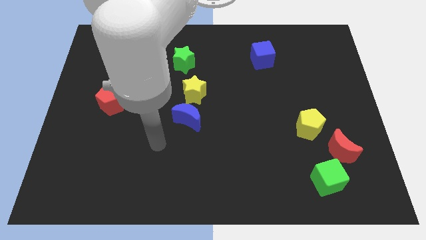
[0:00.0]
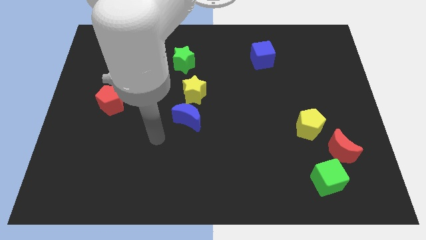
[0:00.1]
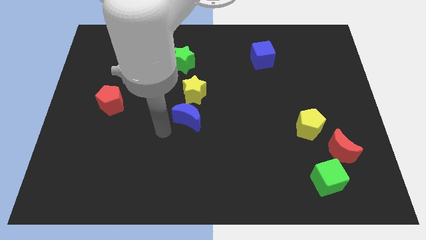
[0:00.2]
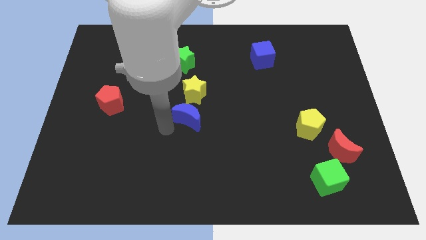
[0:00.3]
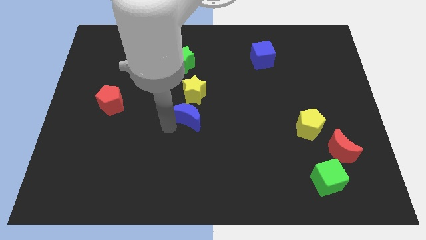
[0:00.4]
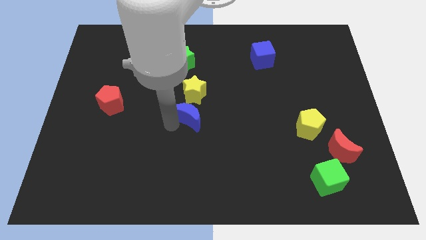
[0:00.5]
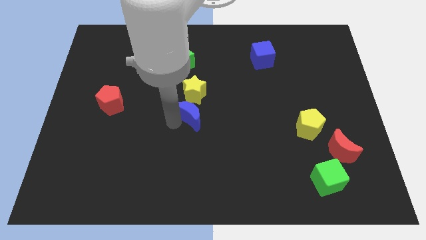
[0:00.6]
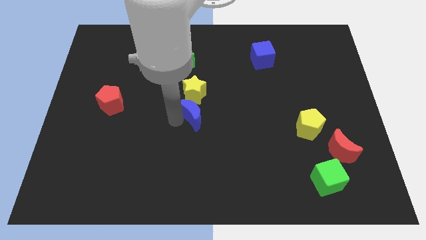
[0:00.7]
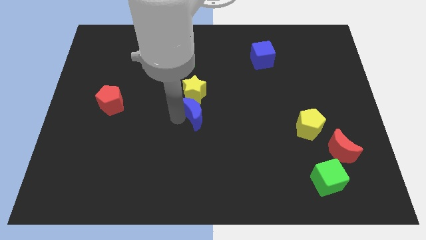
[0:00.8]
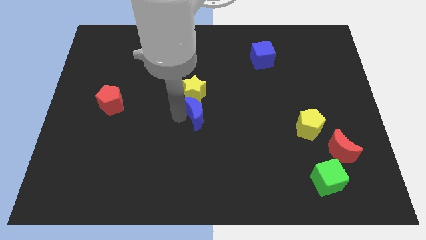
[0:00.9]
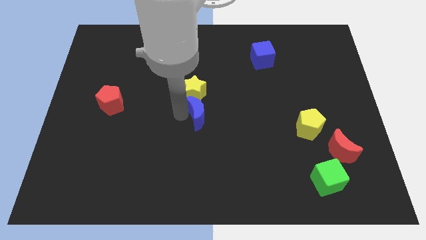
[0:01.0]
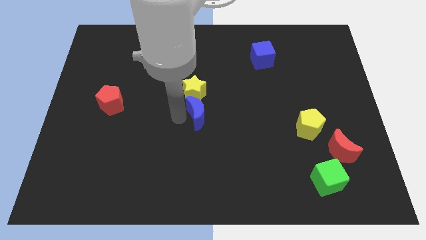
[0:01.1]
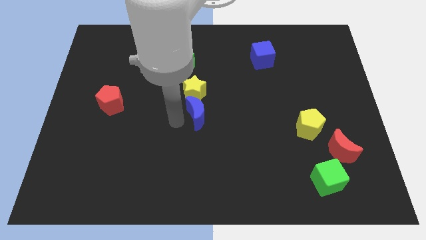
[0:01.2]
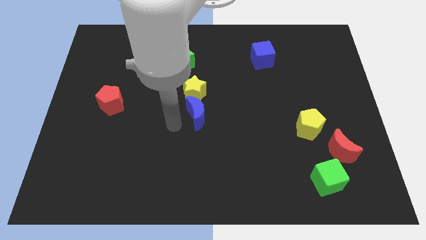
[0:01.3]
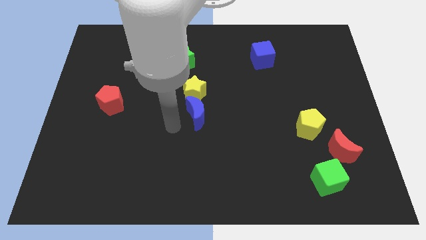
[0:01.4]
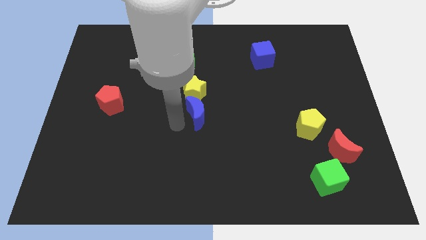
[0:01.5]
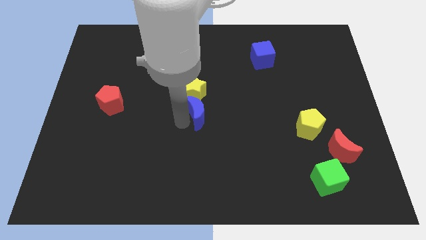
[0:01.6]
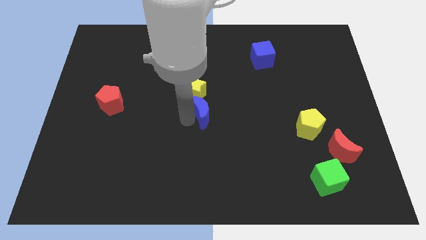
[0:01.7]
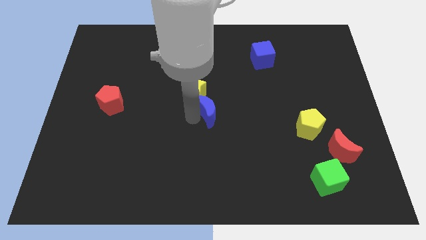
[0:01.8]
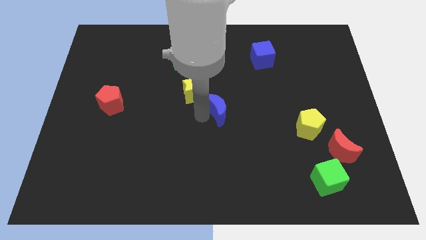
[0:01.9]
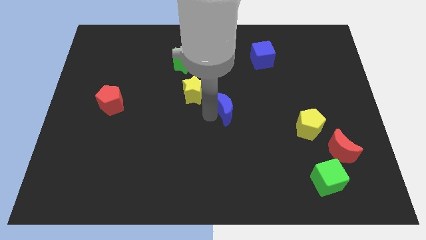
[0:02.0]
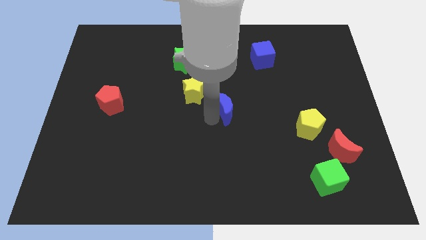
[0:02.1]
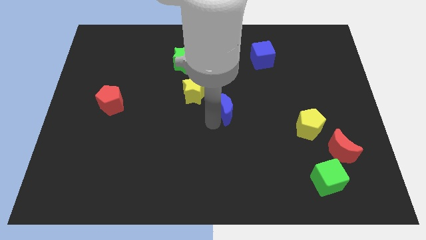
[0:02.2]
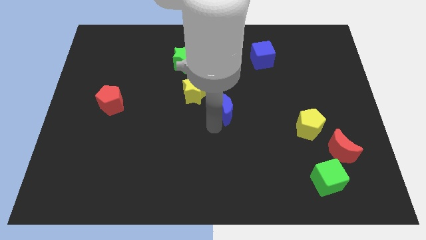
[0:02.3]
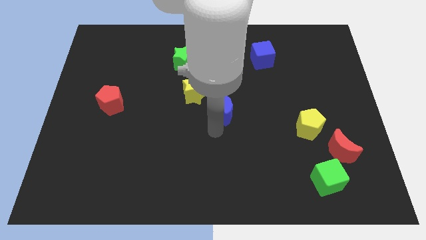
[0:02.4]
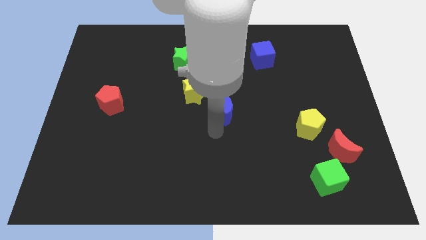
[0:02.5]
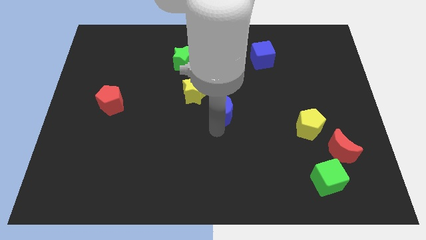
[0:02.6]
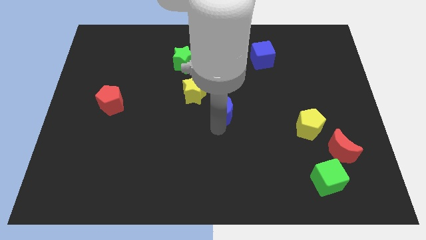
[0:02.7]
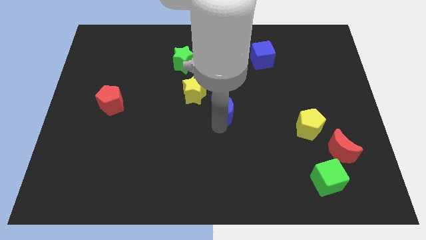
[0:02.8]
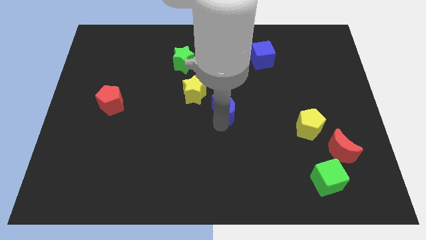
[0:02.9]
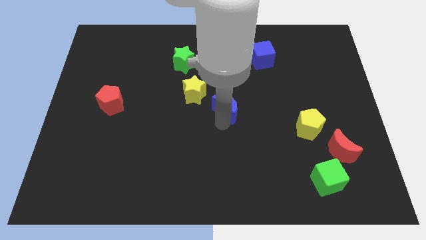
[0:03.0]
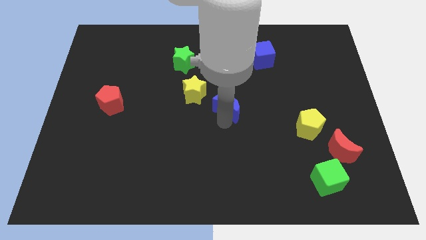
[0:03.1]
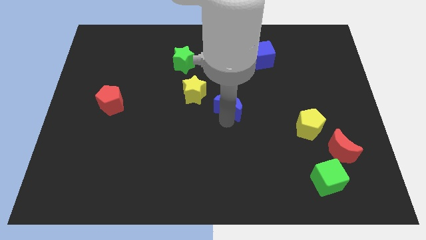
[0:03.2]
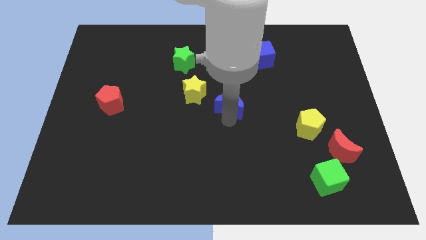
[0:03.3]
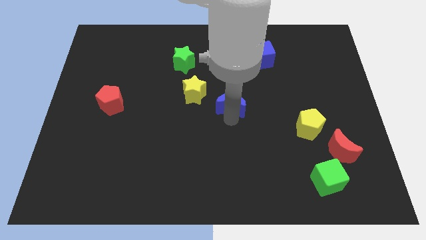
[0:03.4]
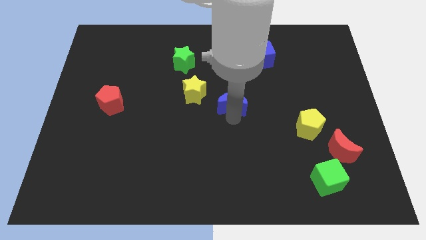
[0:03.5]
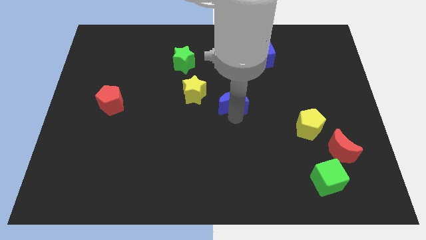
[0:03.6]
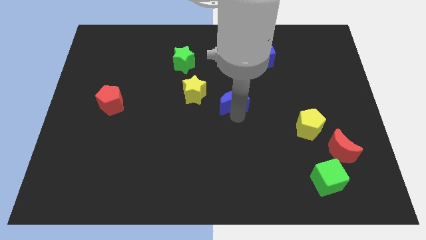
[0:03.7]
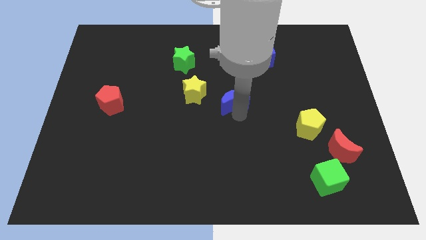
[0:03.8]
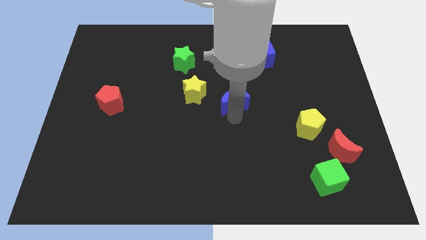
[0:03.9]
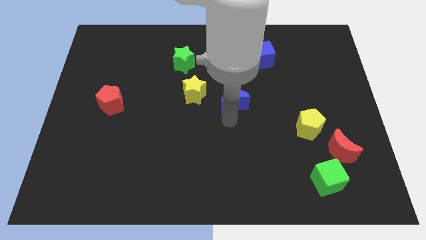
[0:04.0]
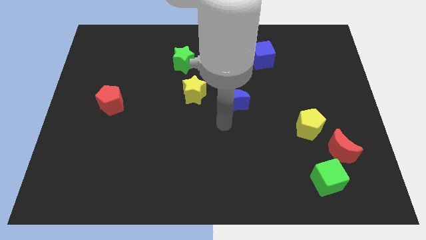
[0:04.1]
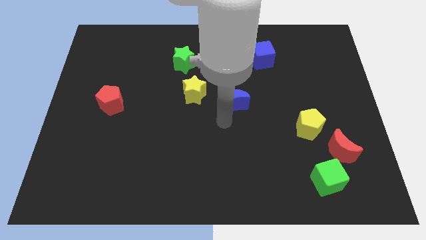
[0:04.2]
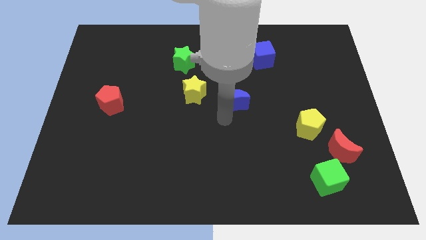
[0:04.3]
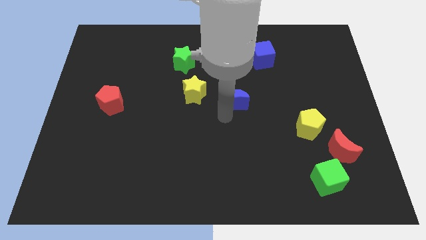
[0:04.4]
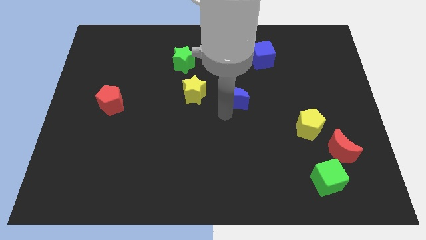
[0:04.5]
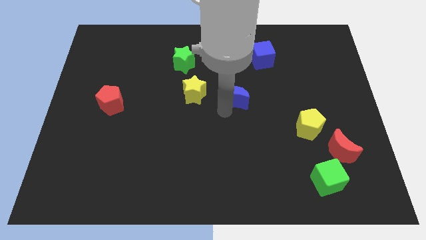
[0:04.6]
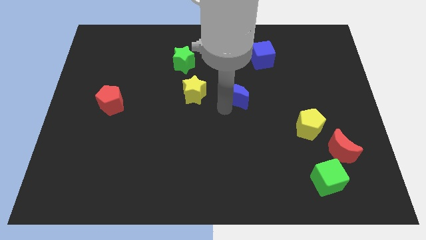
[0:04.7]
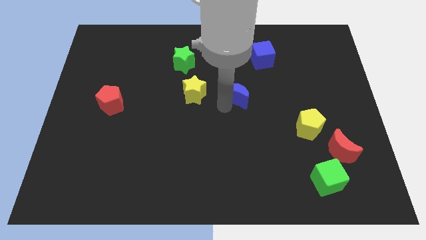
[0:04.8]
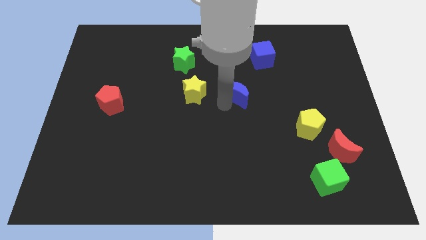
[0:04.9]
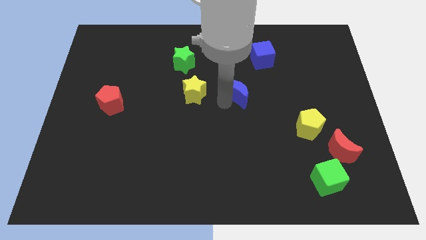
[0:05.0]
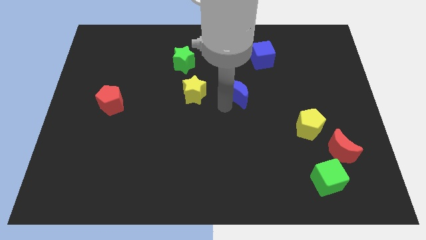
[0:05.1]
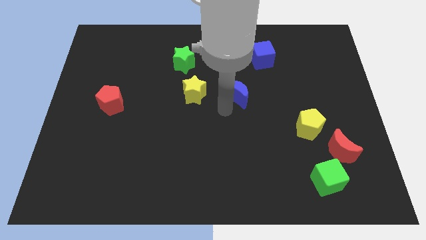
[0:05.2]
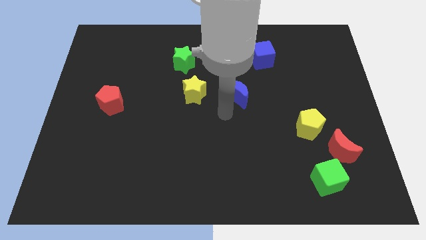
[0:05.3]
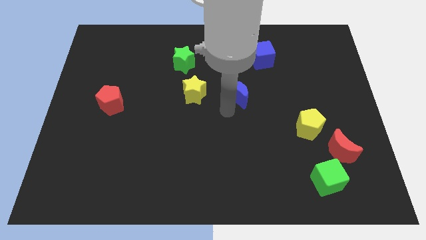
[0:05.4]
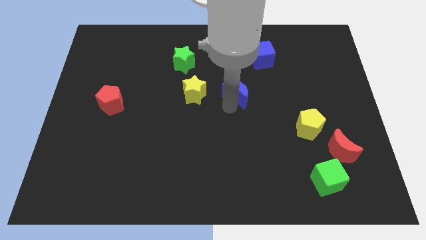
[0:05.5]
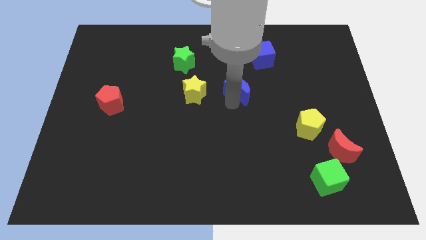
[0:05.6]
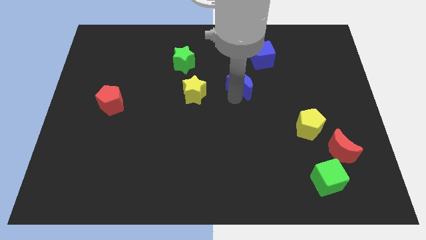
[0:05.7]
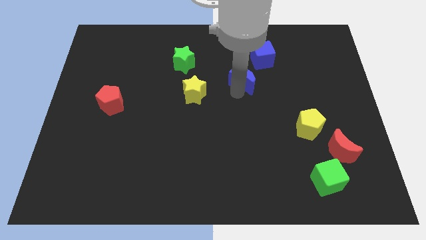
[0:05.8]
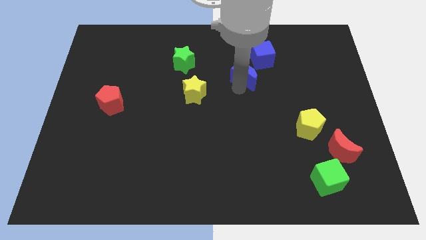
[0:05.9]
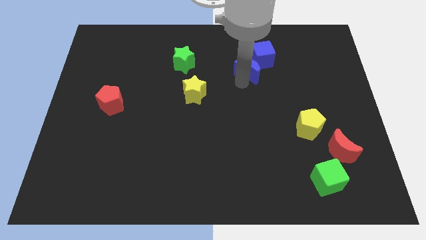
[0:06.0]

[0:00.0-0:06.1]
move the blue moon next to the blue cube

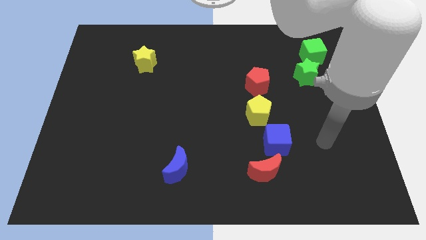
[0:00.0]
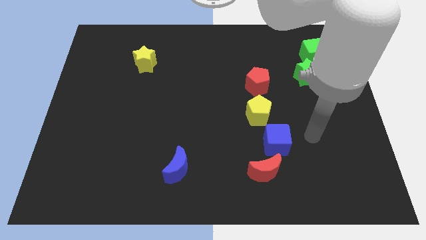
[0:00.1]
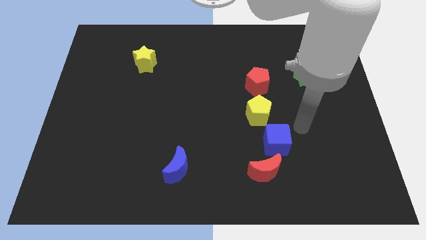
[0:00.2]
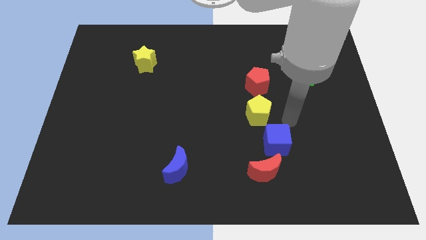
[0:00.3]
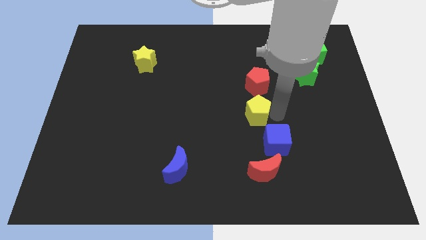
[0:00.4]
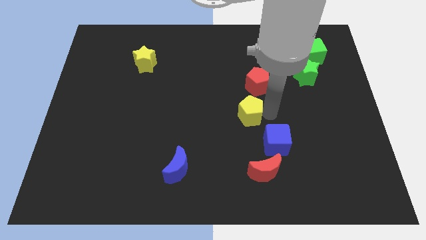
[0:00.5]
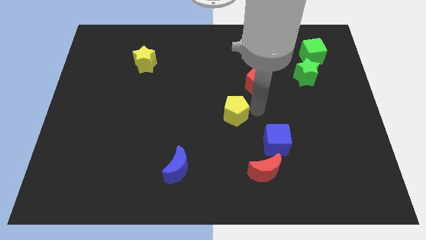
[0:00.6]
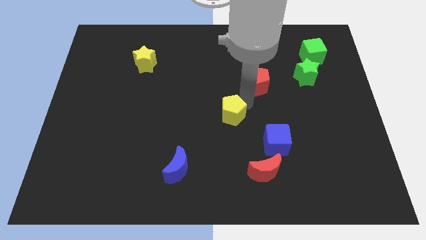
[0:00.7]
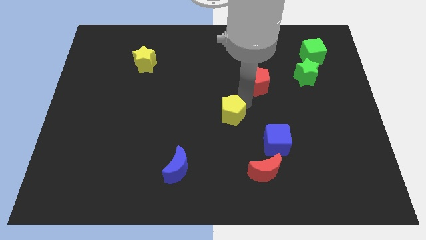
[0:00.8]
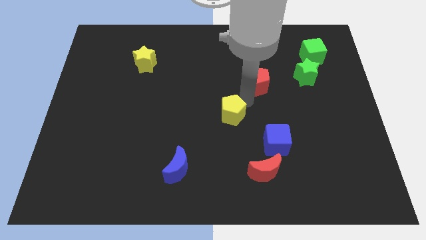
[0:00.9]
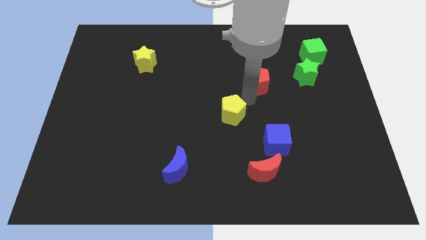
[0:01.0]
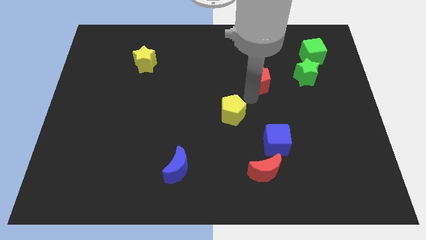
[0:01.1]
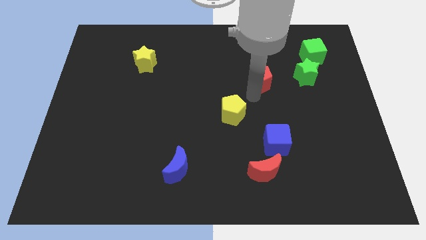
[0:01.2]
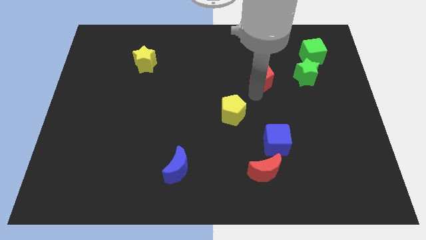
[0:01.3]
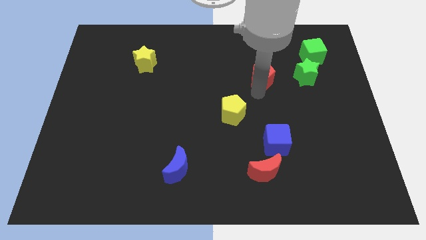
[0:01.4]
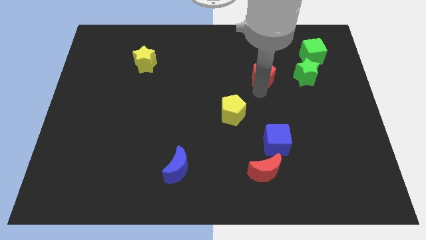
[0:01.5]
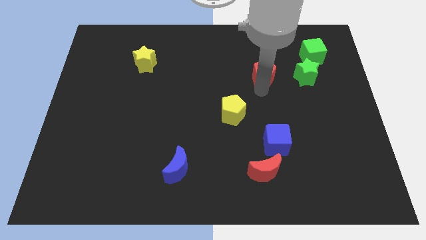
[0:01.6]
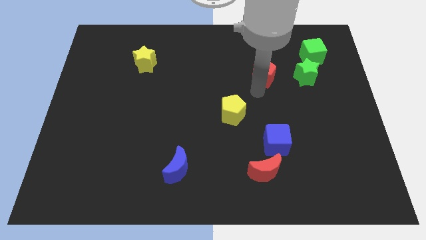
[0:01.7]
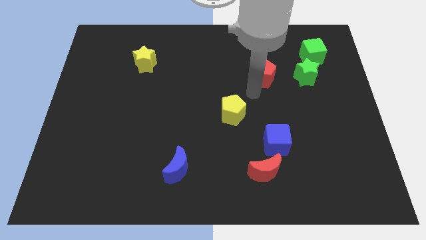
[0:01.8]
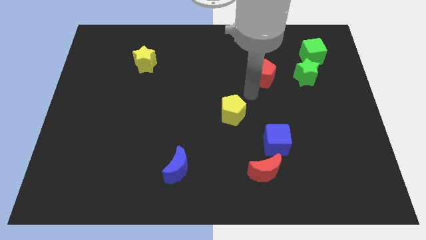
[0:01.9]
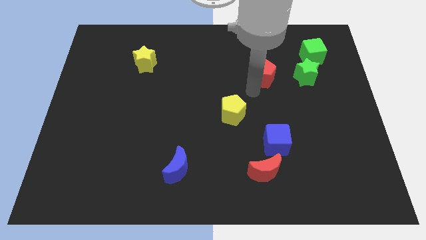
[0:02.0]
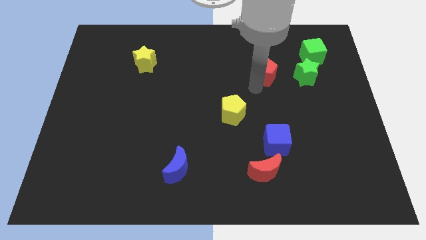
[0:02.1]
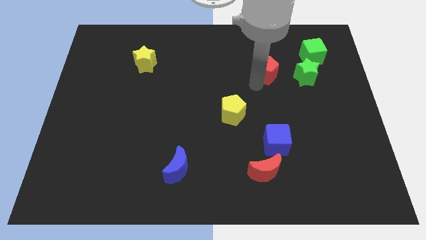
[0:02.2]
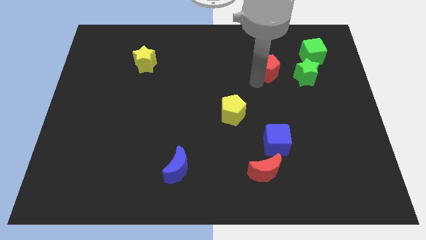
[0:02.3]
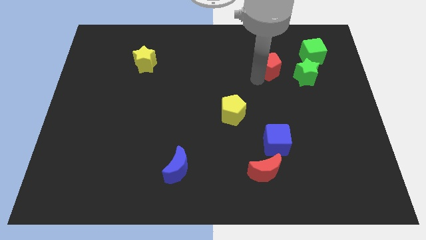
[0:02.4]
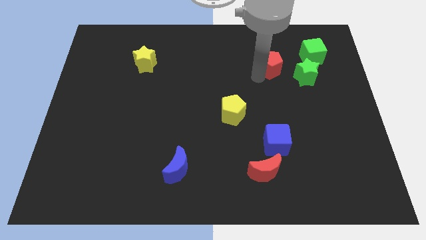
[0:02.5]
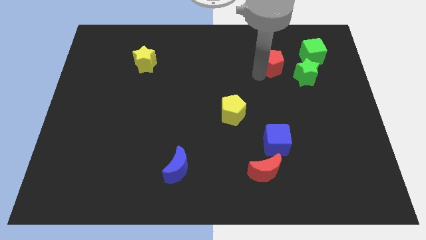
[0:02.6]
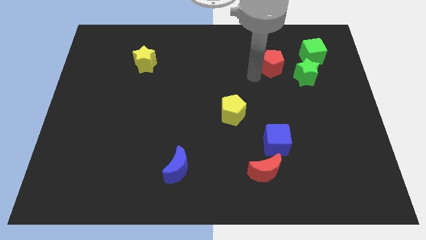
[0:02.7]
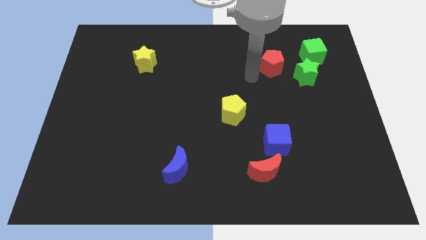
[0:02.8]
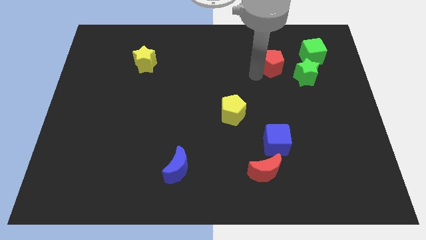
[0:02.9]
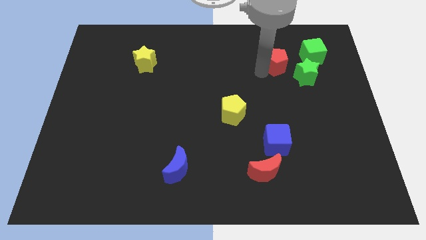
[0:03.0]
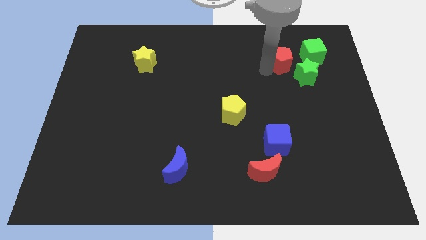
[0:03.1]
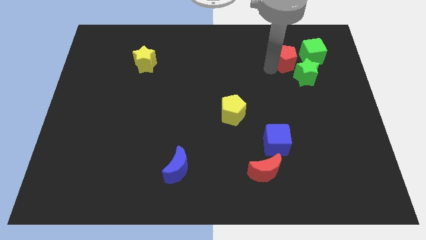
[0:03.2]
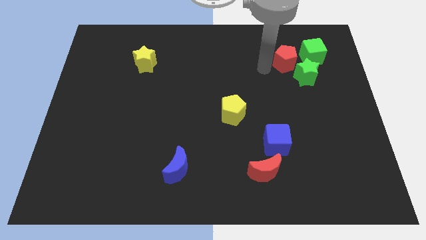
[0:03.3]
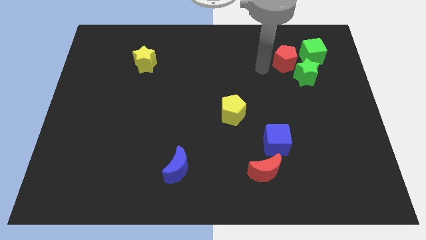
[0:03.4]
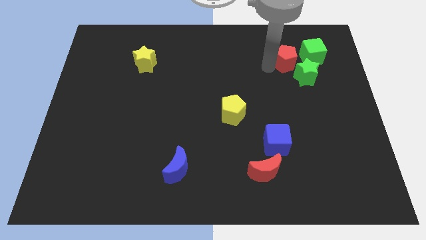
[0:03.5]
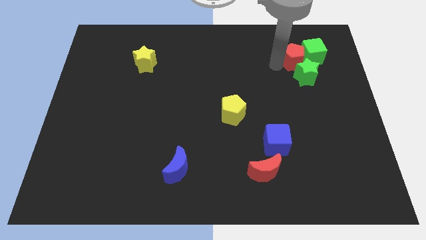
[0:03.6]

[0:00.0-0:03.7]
put the red pentagon to the green cube
